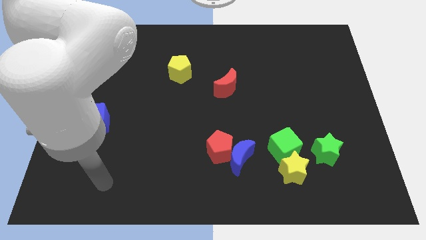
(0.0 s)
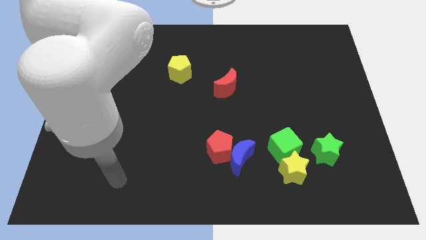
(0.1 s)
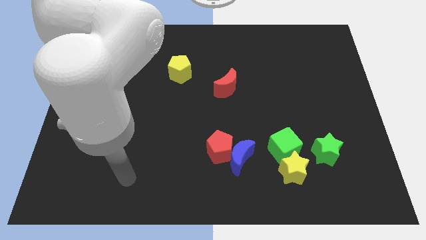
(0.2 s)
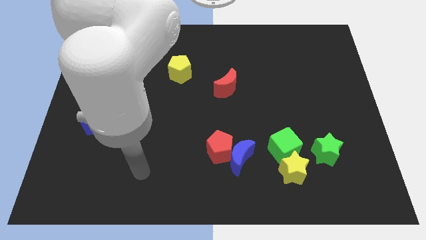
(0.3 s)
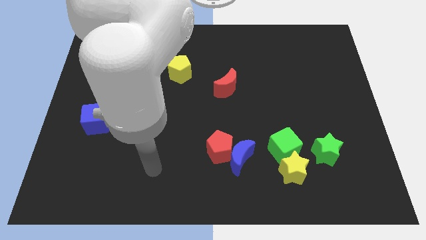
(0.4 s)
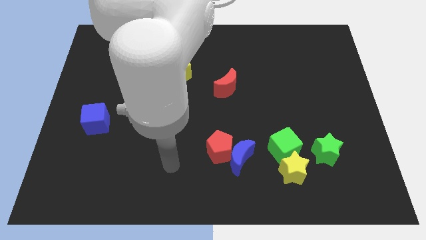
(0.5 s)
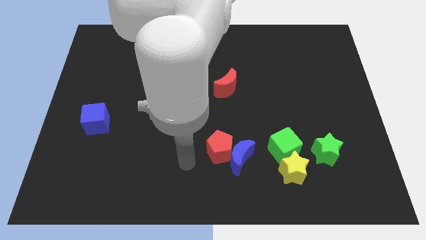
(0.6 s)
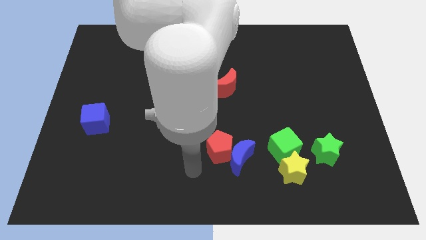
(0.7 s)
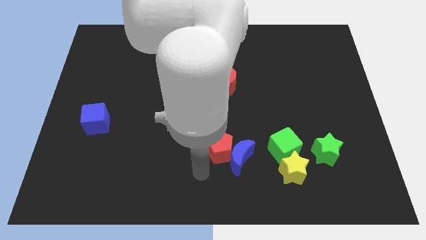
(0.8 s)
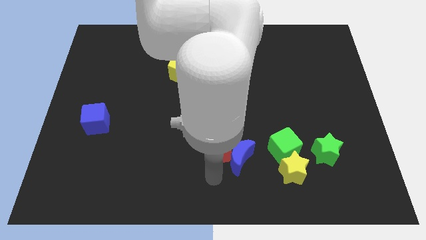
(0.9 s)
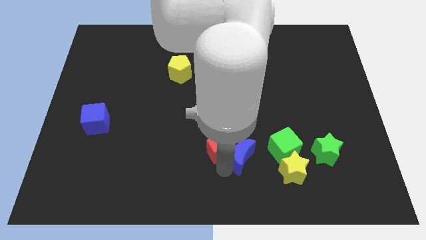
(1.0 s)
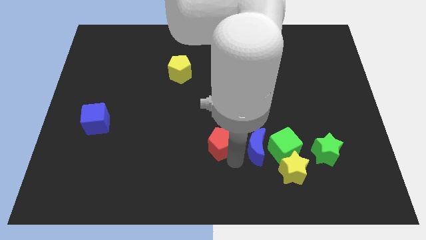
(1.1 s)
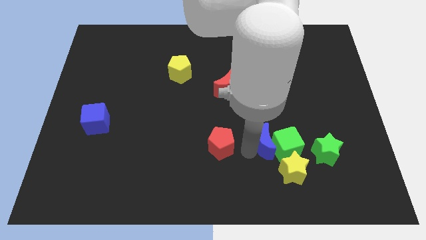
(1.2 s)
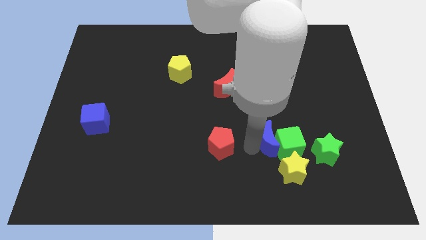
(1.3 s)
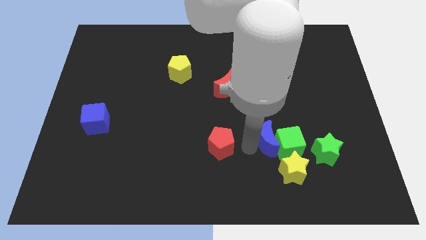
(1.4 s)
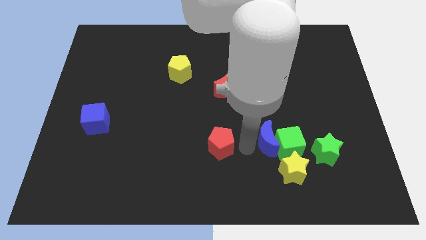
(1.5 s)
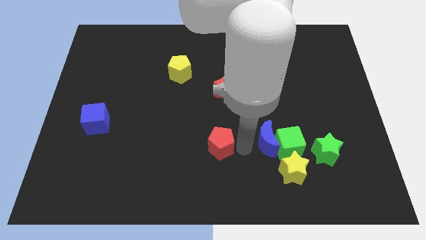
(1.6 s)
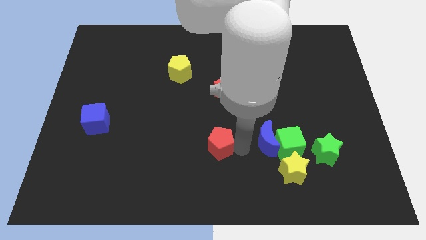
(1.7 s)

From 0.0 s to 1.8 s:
separate the red pentagon from the blue moon

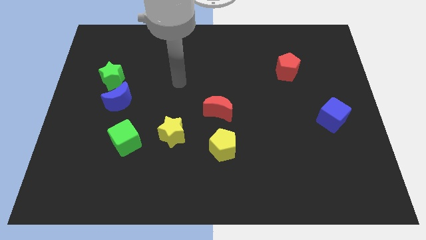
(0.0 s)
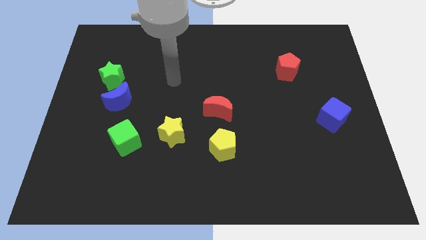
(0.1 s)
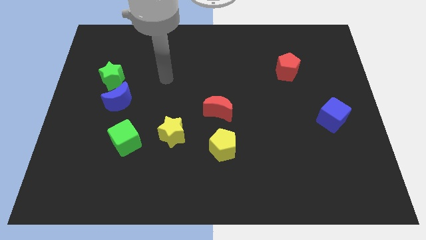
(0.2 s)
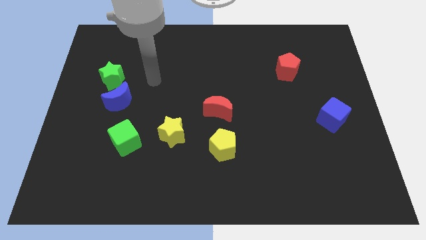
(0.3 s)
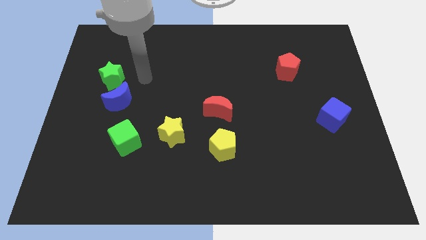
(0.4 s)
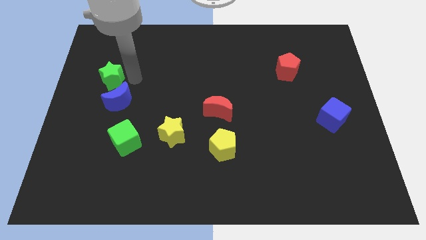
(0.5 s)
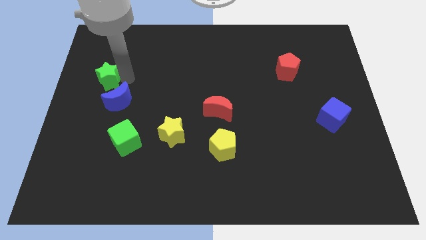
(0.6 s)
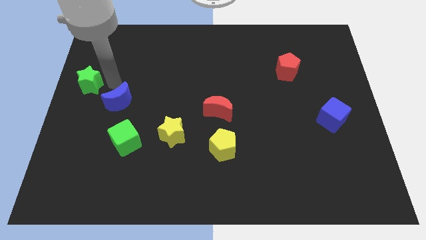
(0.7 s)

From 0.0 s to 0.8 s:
separate the blue moon from the green star

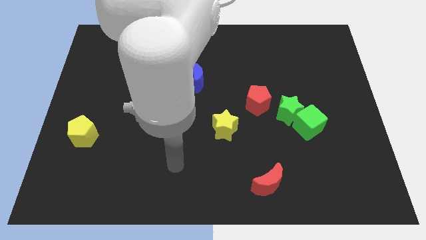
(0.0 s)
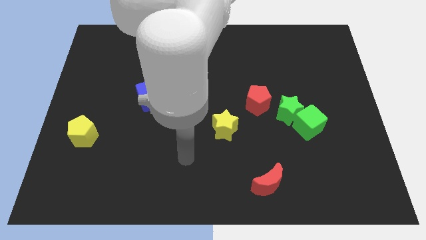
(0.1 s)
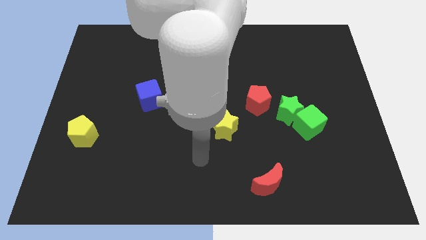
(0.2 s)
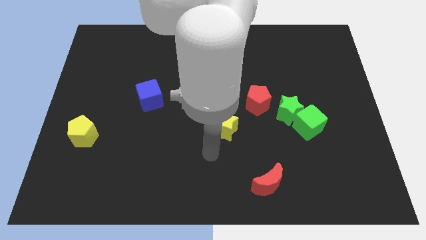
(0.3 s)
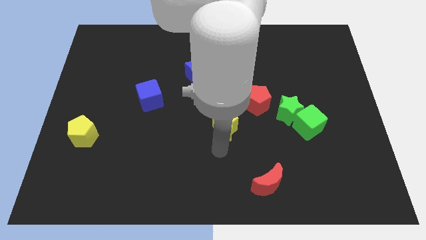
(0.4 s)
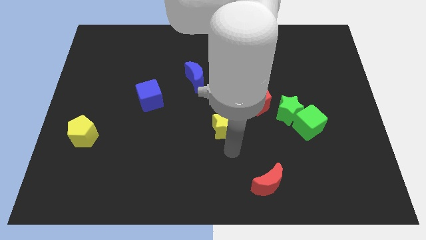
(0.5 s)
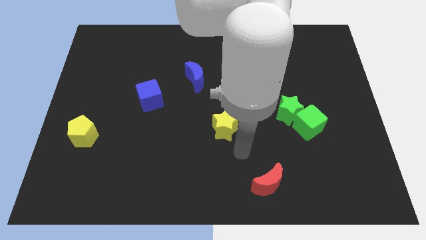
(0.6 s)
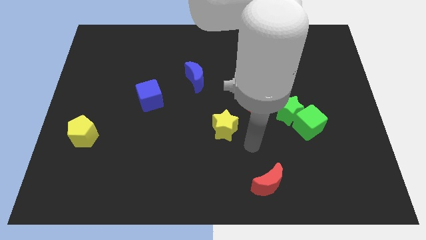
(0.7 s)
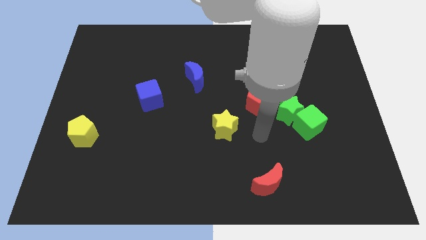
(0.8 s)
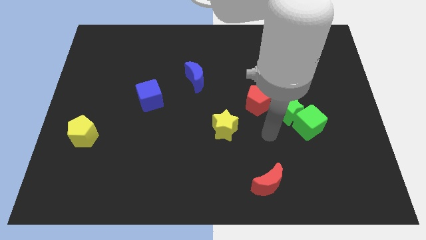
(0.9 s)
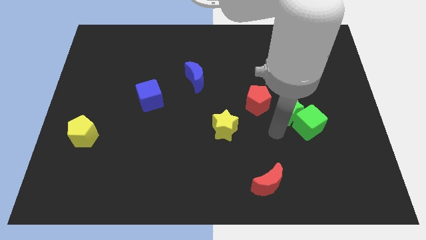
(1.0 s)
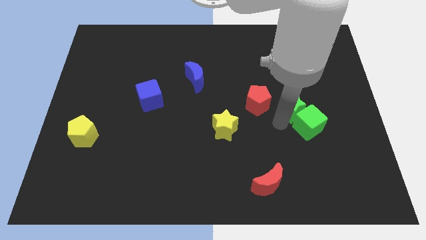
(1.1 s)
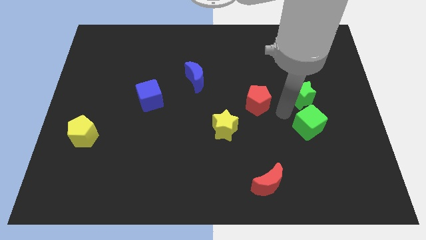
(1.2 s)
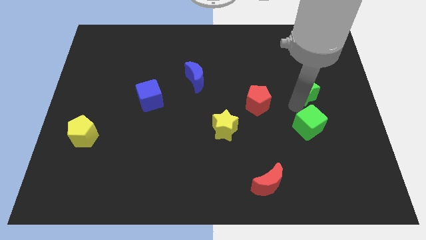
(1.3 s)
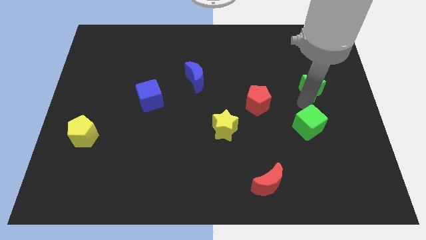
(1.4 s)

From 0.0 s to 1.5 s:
pull the green cube apart from the green star

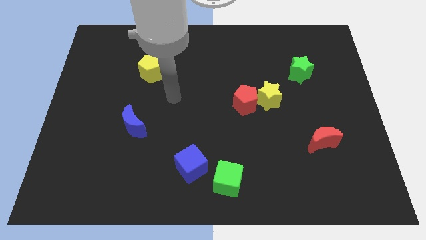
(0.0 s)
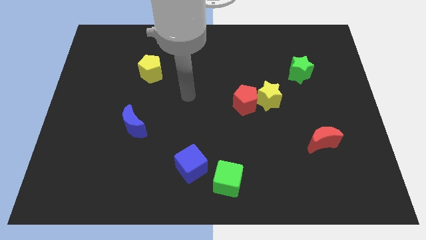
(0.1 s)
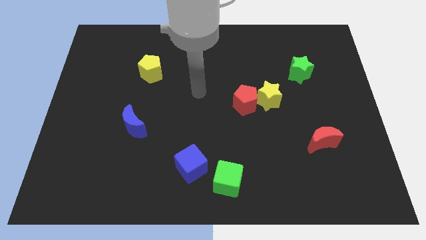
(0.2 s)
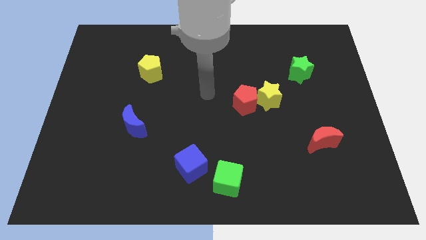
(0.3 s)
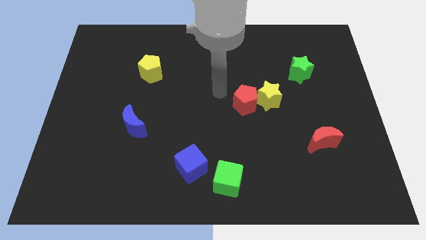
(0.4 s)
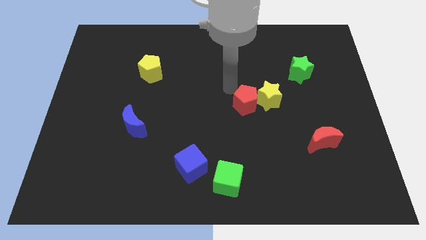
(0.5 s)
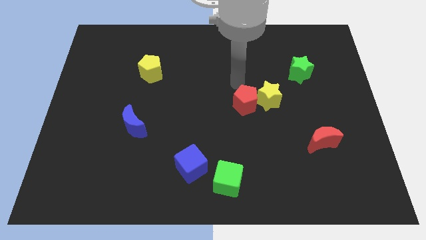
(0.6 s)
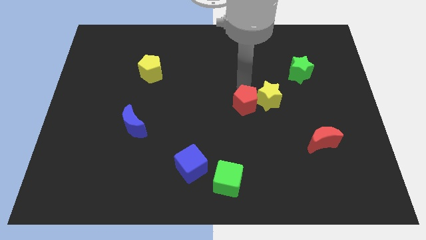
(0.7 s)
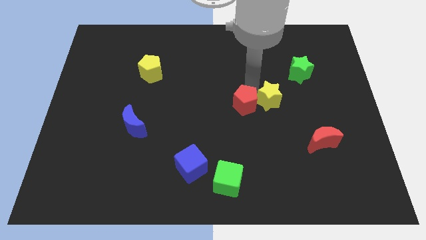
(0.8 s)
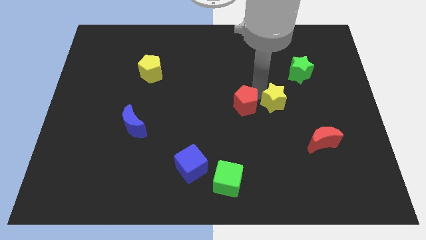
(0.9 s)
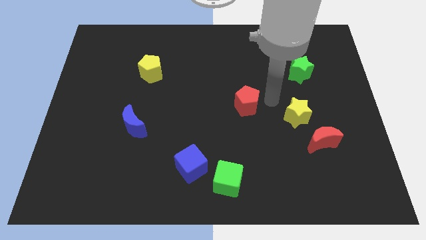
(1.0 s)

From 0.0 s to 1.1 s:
pull the red pentagon apart from the yellow star

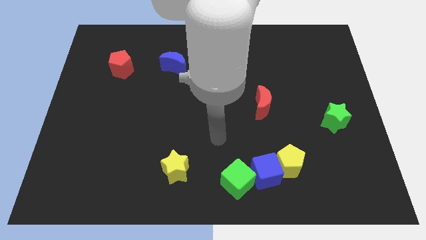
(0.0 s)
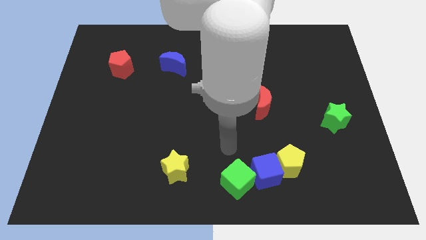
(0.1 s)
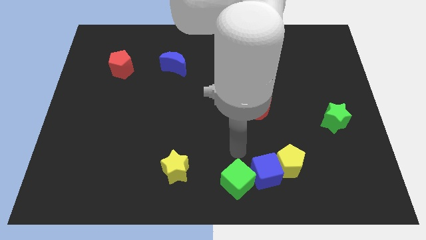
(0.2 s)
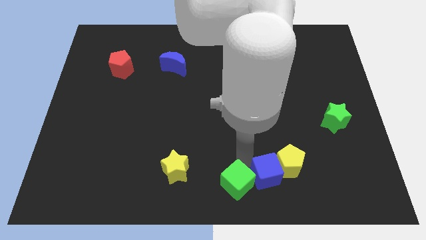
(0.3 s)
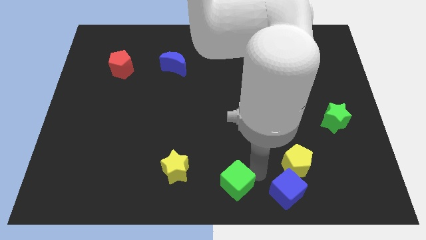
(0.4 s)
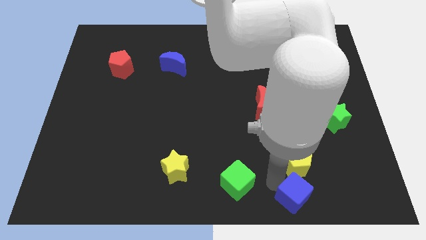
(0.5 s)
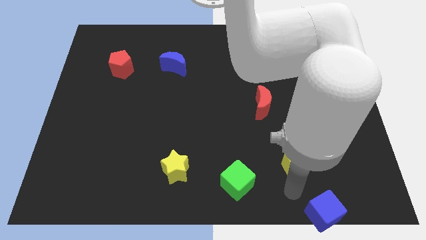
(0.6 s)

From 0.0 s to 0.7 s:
separate the yellow pentagon from the blue cube

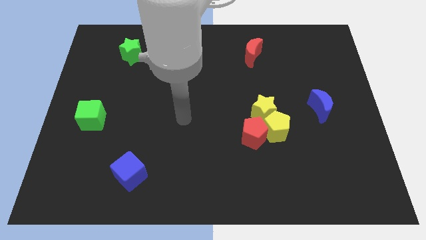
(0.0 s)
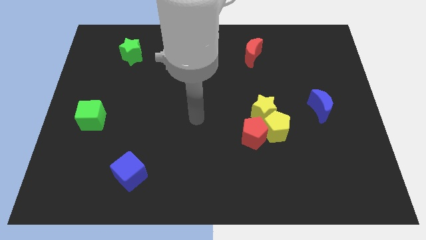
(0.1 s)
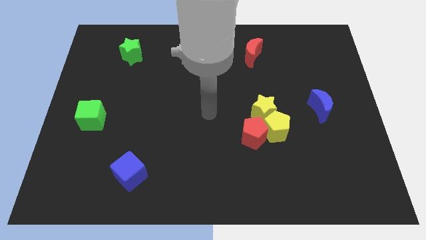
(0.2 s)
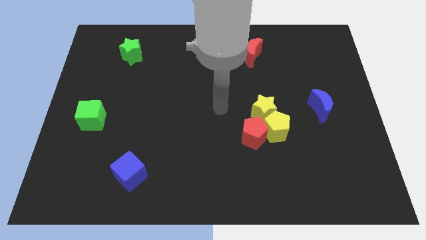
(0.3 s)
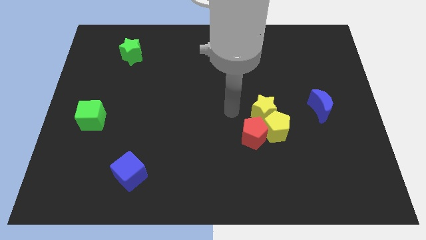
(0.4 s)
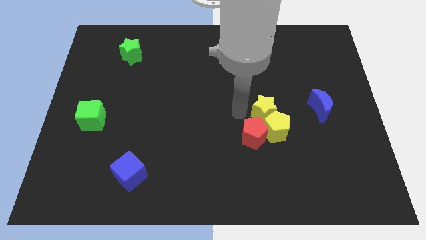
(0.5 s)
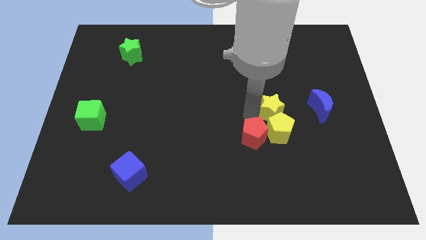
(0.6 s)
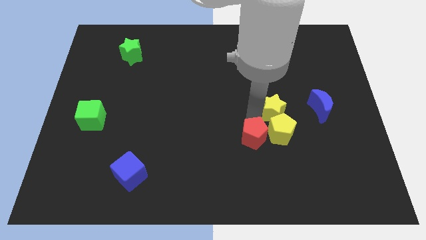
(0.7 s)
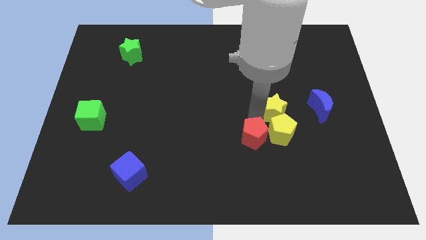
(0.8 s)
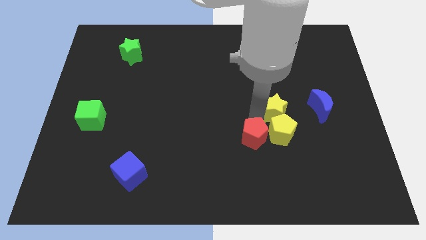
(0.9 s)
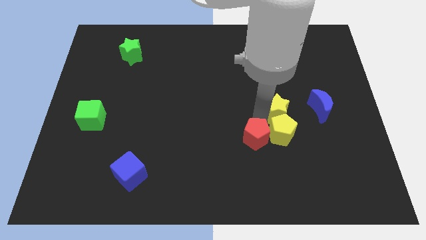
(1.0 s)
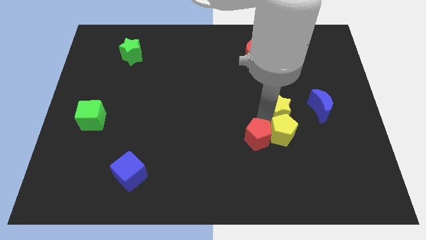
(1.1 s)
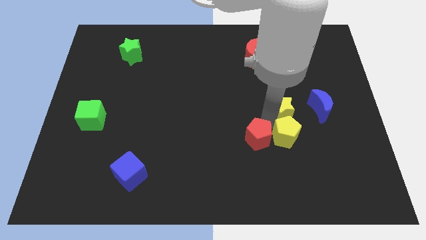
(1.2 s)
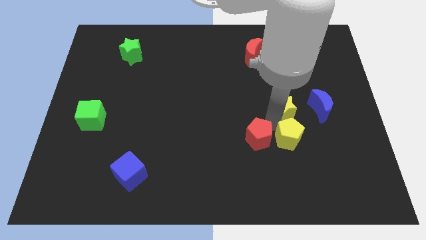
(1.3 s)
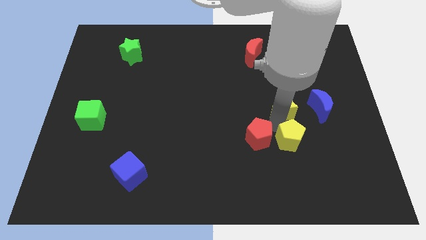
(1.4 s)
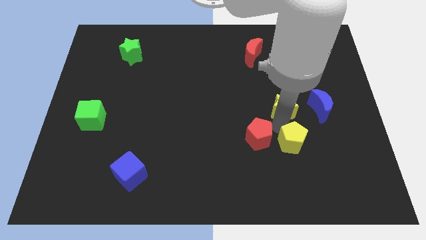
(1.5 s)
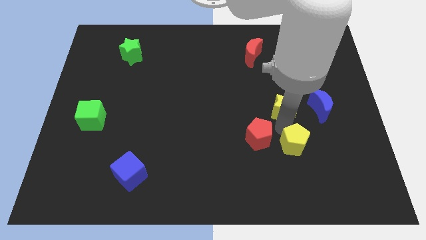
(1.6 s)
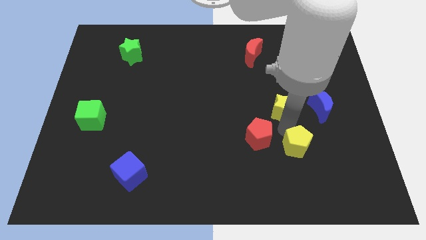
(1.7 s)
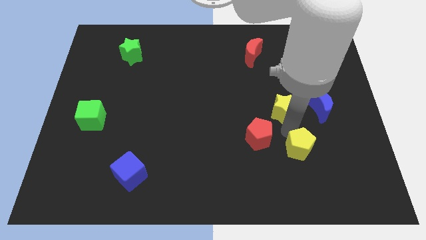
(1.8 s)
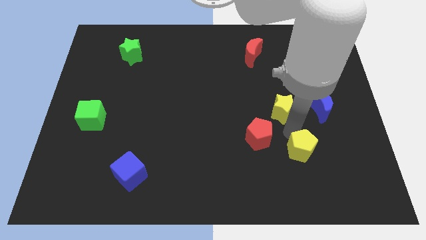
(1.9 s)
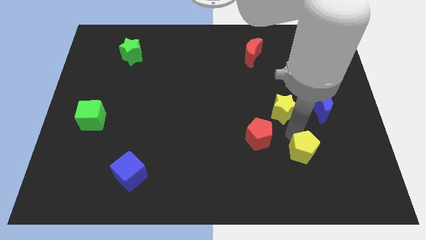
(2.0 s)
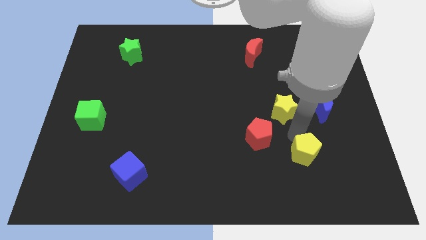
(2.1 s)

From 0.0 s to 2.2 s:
move the yellow pentagon away from the yellow star and red pentagon

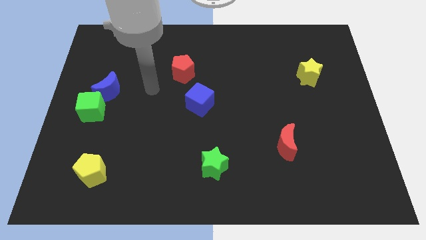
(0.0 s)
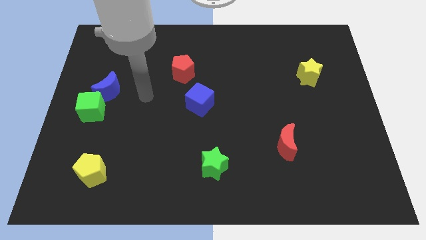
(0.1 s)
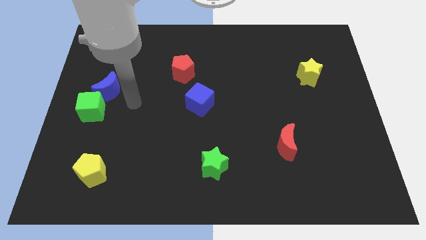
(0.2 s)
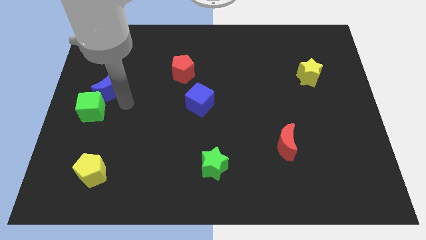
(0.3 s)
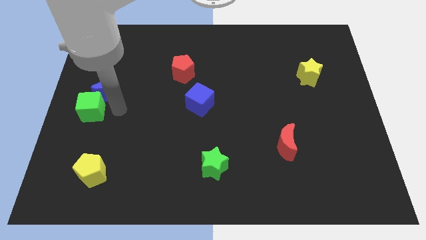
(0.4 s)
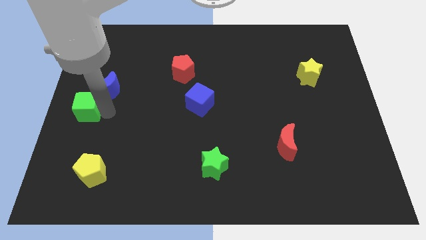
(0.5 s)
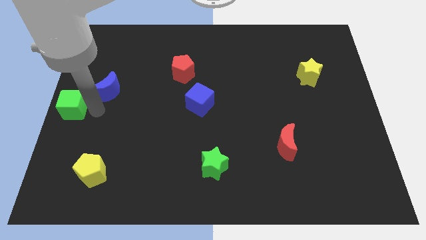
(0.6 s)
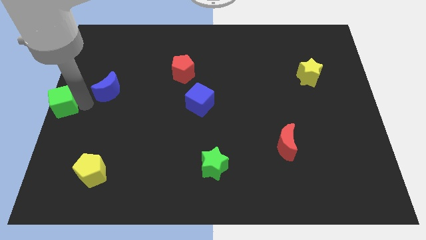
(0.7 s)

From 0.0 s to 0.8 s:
separate the blue moon from the green cube

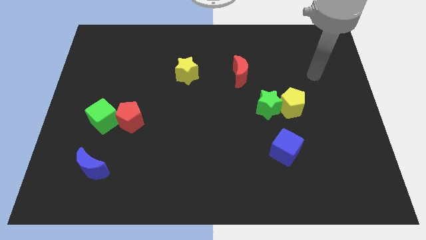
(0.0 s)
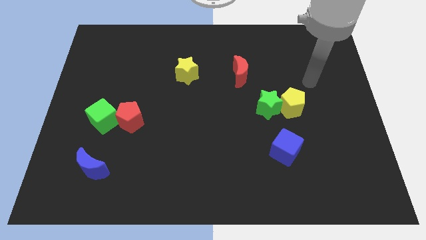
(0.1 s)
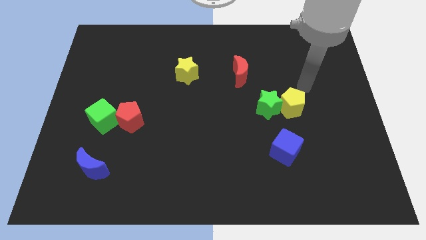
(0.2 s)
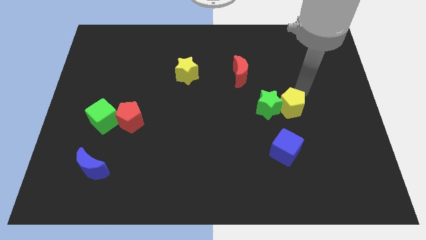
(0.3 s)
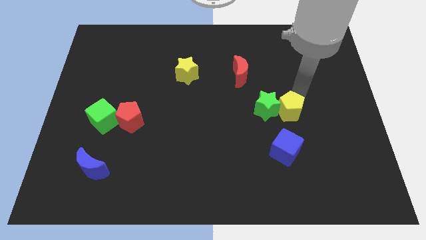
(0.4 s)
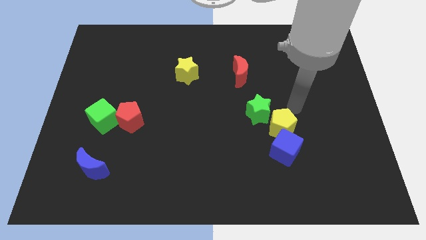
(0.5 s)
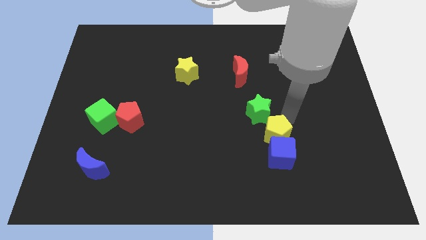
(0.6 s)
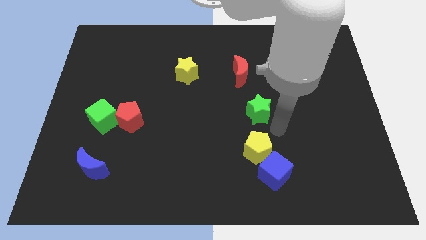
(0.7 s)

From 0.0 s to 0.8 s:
move the green star away from the yellow pentagon
